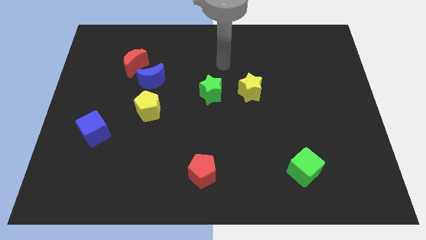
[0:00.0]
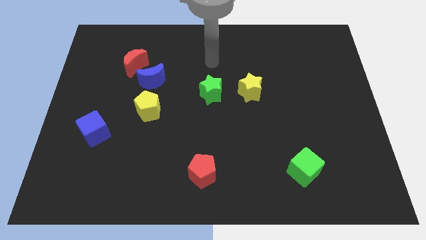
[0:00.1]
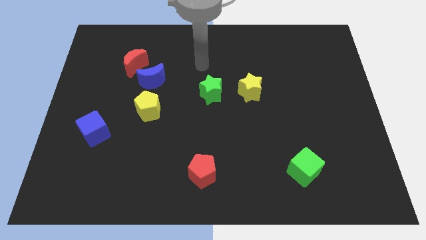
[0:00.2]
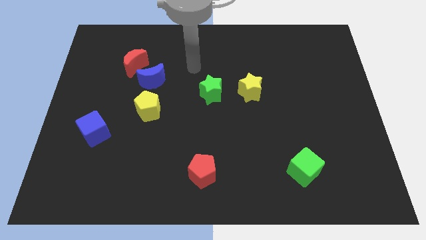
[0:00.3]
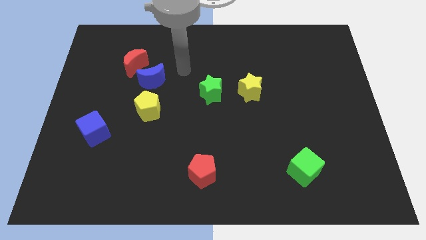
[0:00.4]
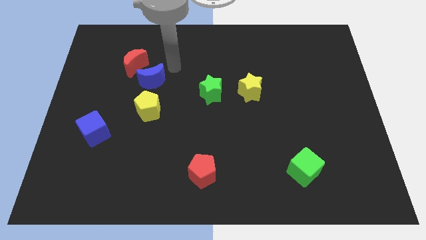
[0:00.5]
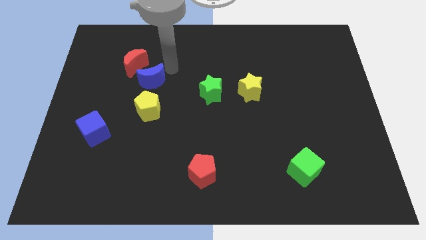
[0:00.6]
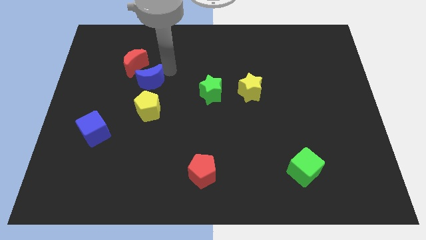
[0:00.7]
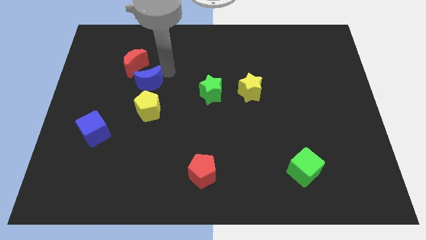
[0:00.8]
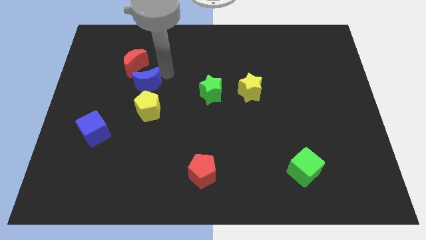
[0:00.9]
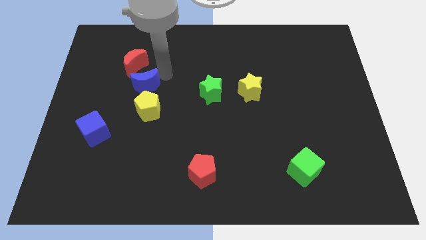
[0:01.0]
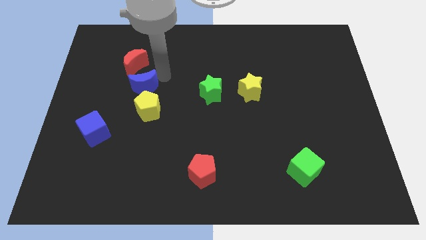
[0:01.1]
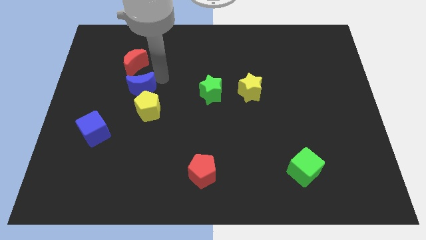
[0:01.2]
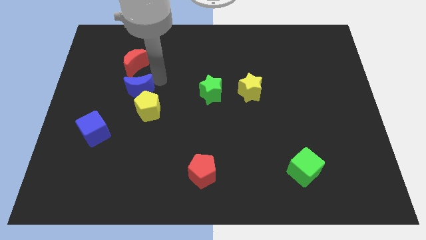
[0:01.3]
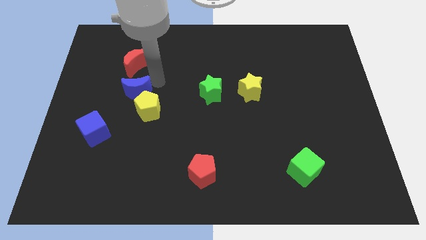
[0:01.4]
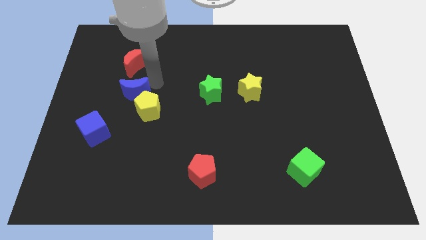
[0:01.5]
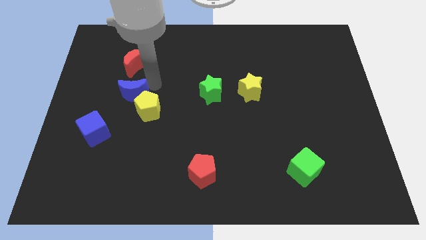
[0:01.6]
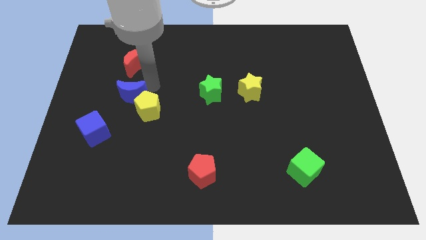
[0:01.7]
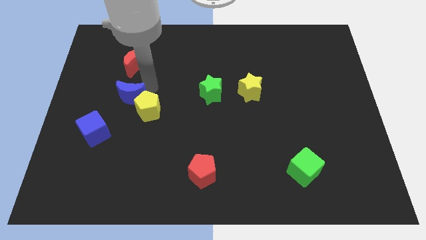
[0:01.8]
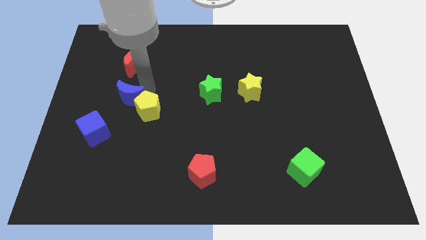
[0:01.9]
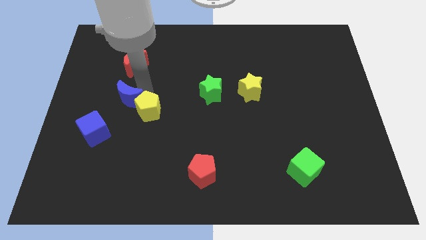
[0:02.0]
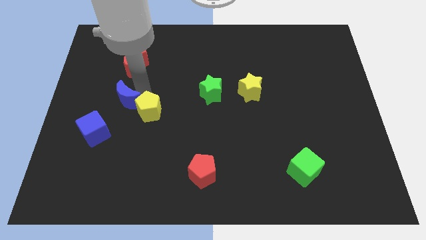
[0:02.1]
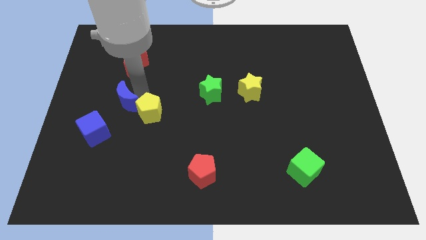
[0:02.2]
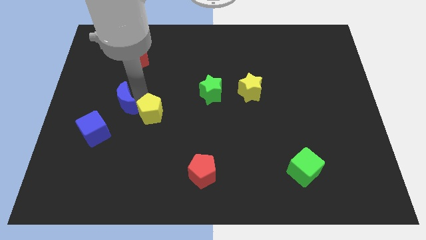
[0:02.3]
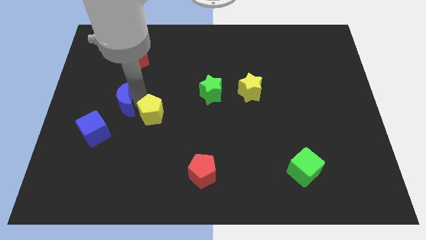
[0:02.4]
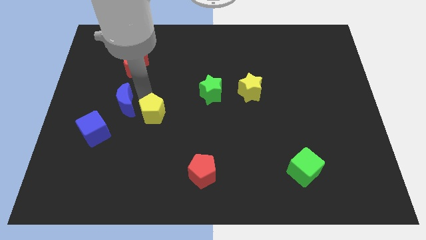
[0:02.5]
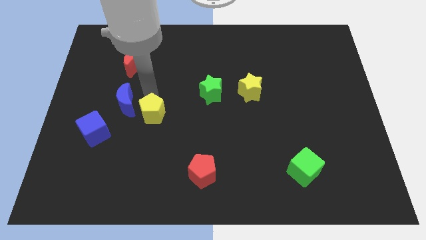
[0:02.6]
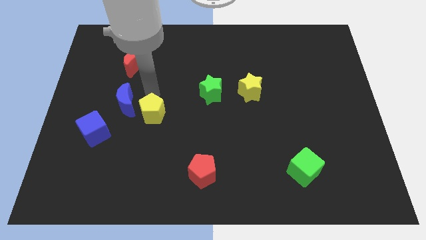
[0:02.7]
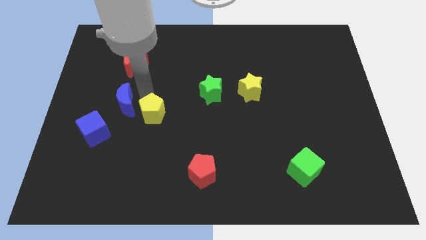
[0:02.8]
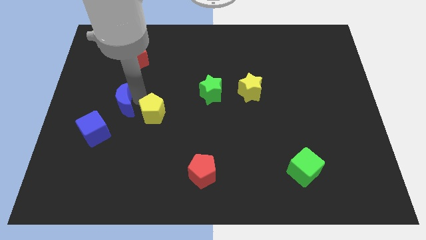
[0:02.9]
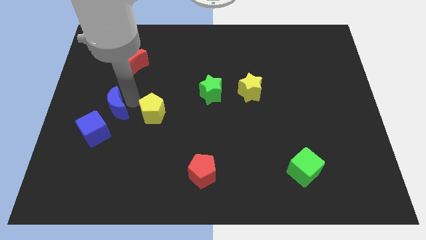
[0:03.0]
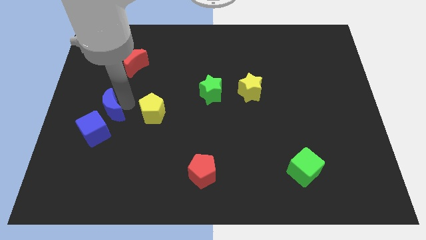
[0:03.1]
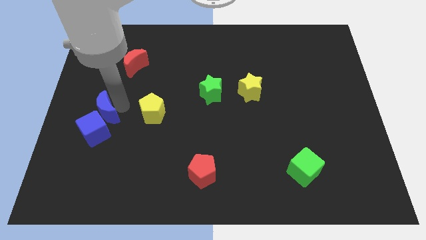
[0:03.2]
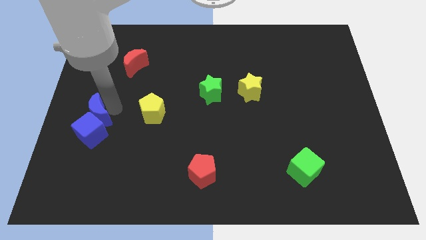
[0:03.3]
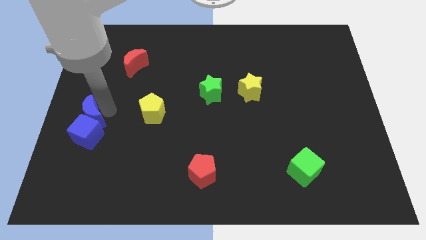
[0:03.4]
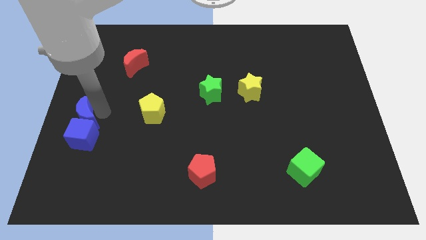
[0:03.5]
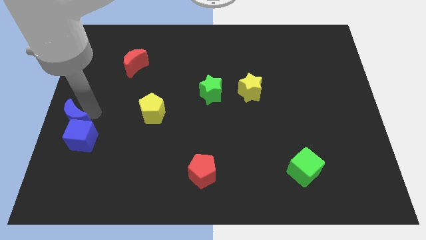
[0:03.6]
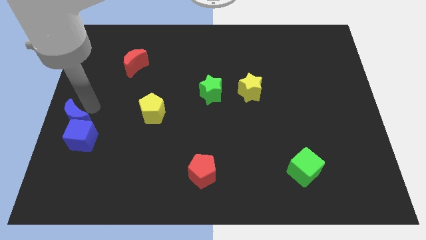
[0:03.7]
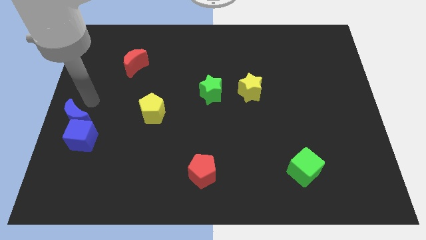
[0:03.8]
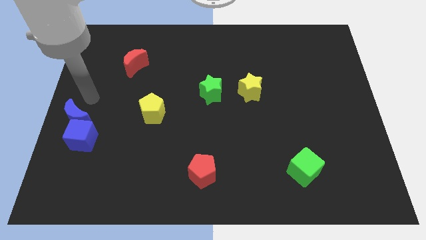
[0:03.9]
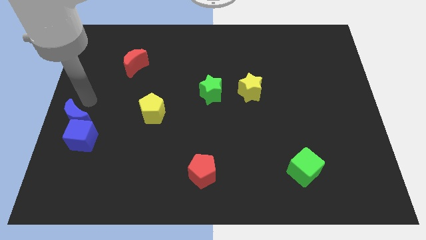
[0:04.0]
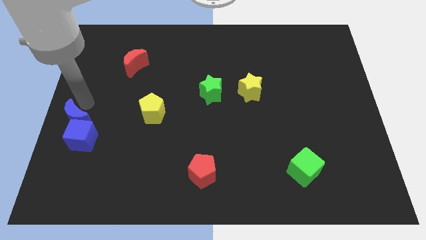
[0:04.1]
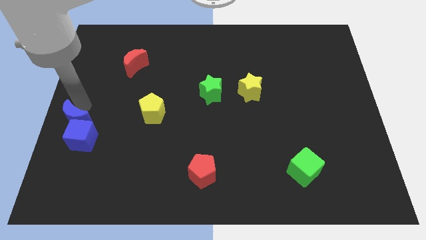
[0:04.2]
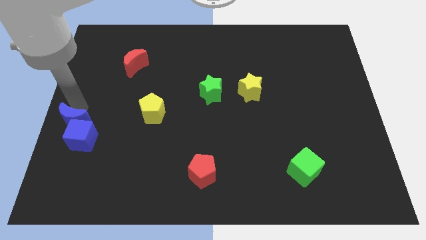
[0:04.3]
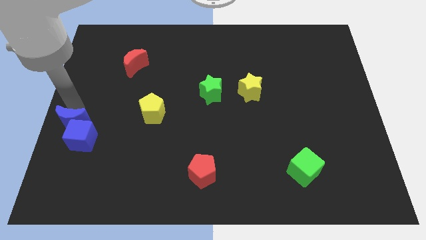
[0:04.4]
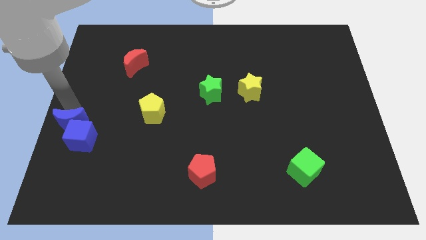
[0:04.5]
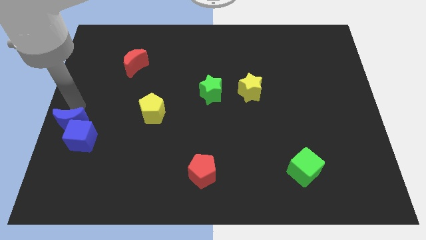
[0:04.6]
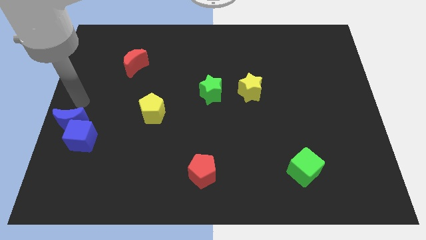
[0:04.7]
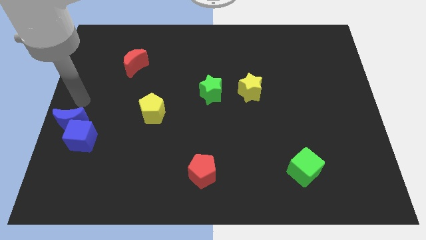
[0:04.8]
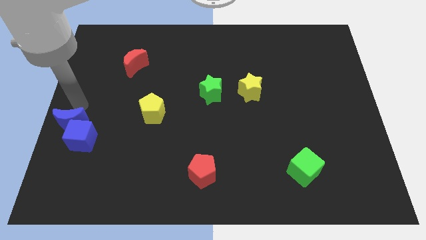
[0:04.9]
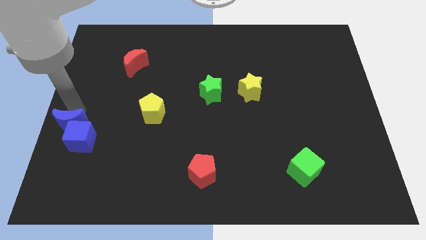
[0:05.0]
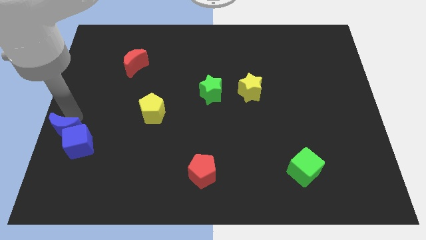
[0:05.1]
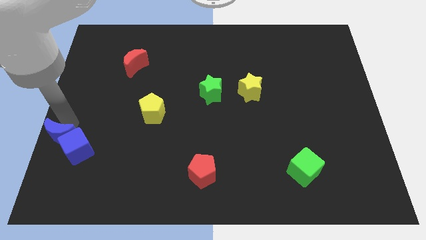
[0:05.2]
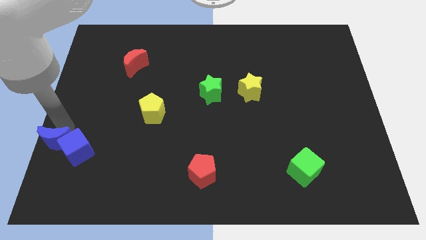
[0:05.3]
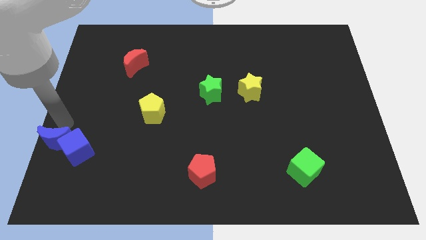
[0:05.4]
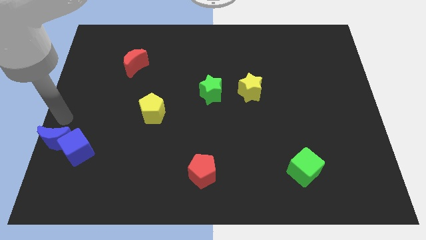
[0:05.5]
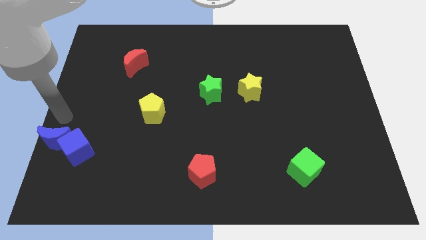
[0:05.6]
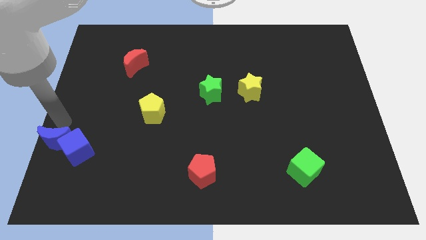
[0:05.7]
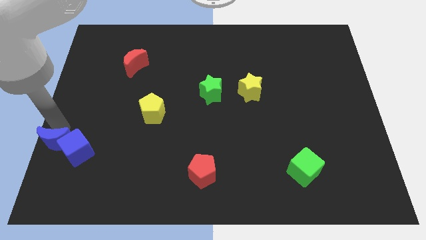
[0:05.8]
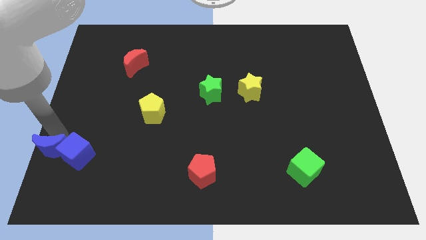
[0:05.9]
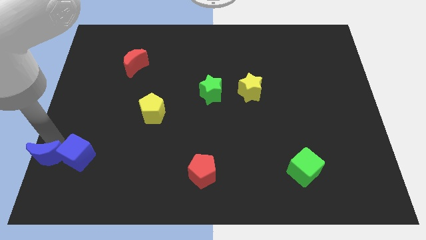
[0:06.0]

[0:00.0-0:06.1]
slide the blue moon to the lower left corner

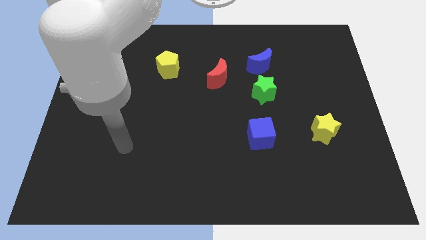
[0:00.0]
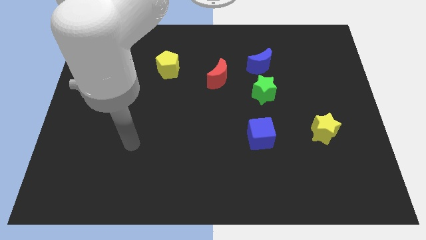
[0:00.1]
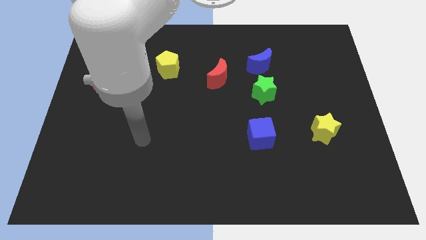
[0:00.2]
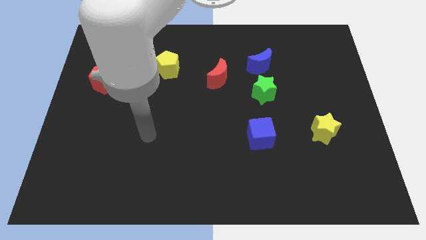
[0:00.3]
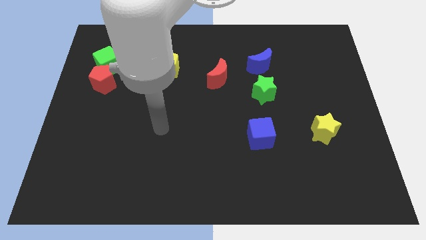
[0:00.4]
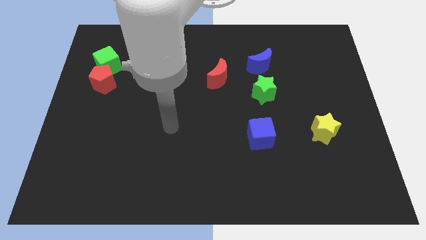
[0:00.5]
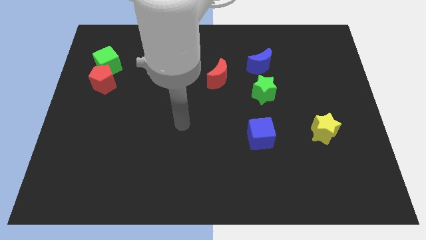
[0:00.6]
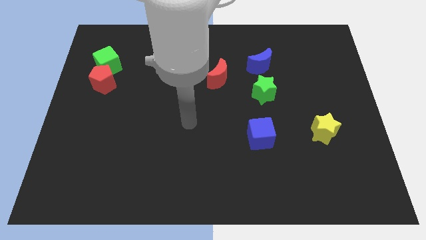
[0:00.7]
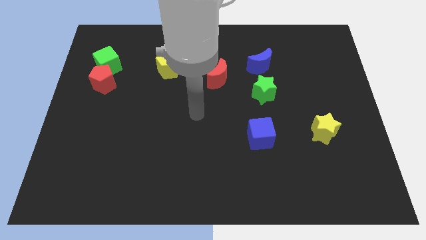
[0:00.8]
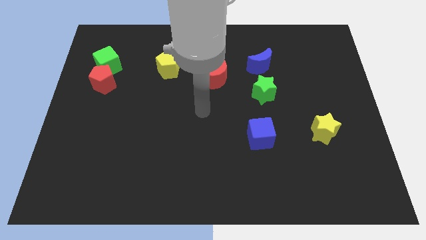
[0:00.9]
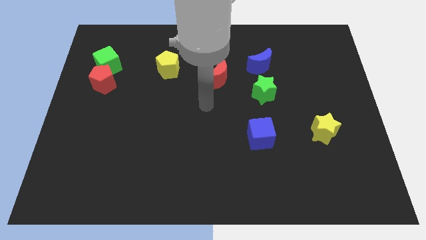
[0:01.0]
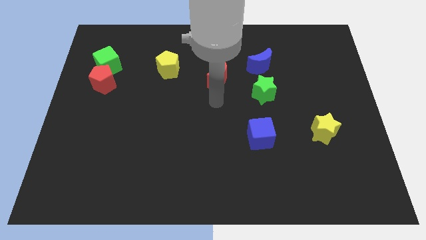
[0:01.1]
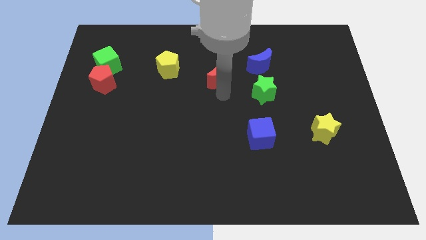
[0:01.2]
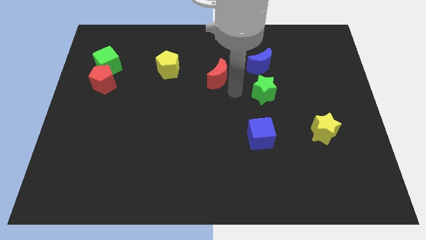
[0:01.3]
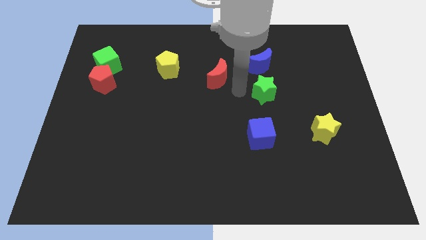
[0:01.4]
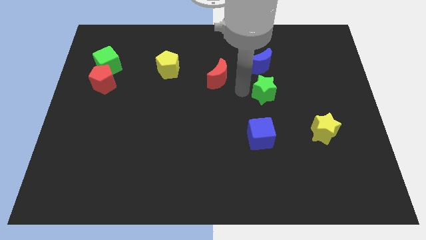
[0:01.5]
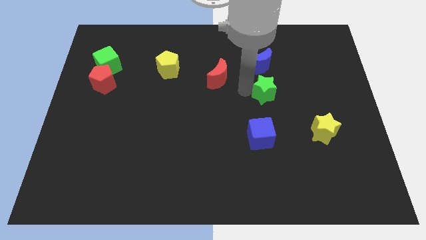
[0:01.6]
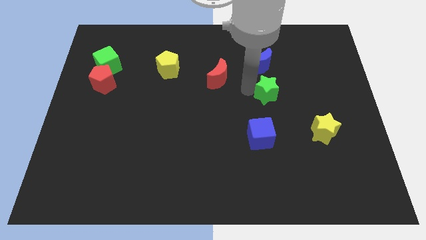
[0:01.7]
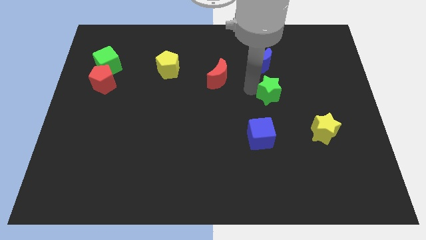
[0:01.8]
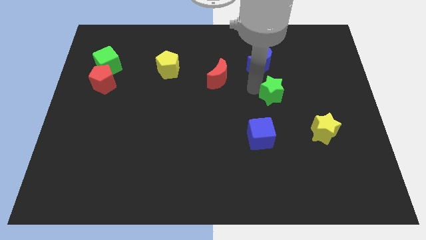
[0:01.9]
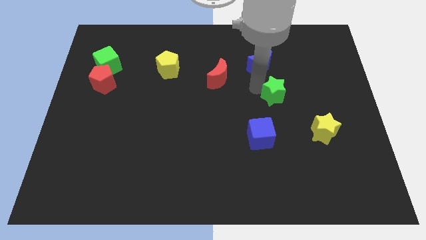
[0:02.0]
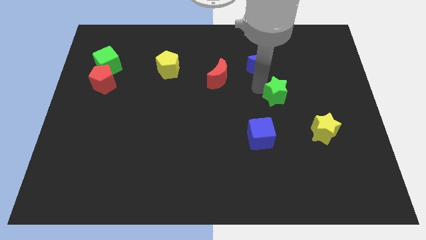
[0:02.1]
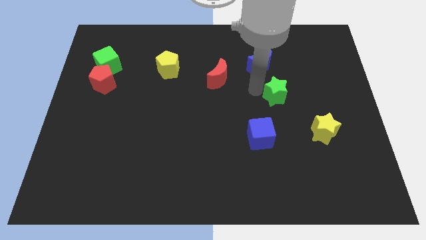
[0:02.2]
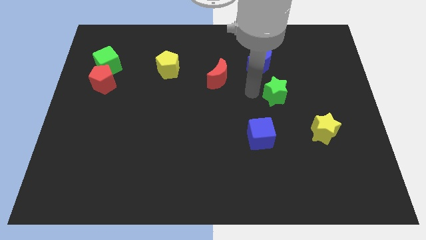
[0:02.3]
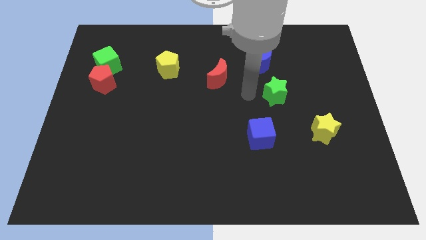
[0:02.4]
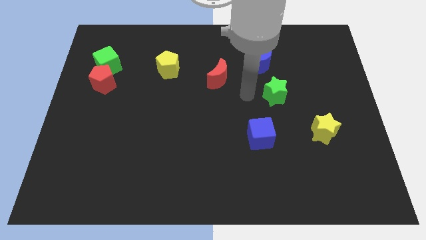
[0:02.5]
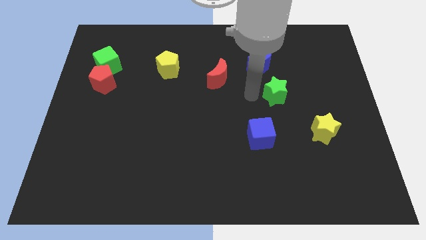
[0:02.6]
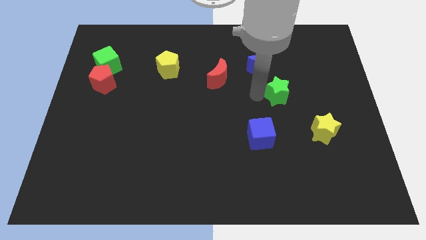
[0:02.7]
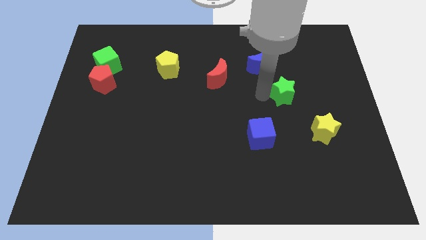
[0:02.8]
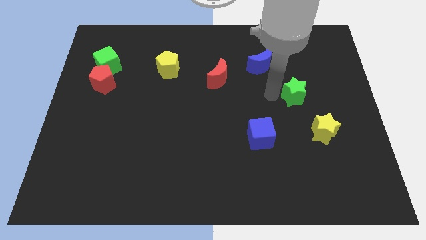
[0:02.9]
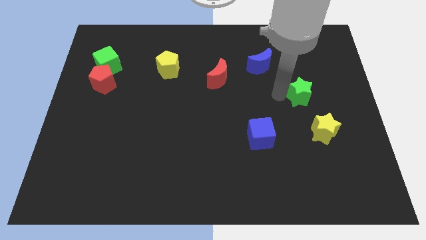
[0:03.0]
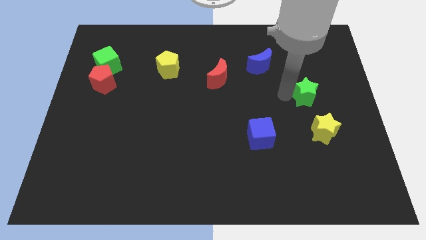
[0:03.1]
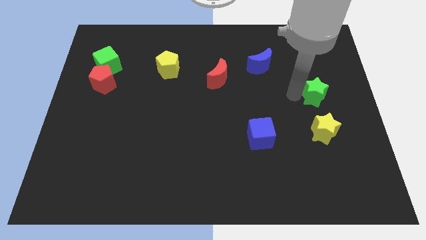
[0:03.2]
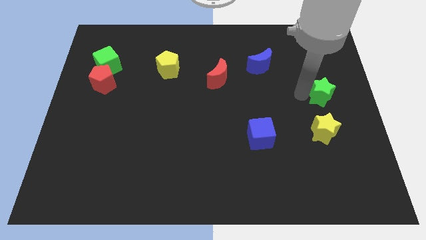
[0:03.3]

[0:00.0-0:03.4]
put the green star to the right side of the board
